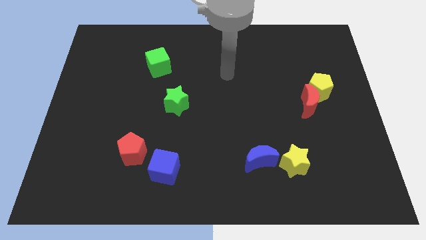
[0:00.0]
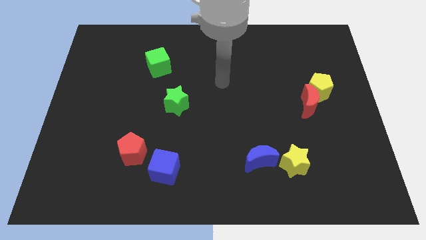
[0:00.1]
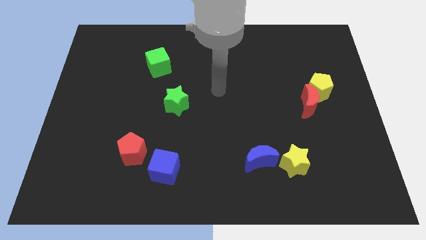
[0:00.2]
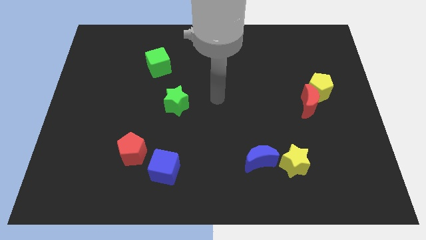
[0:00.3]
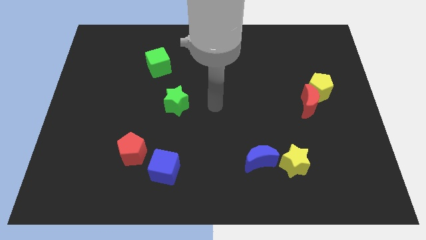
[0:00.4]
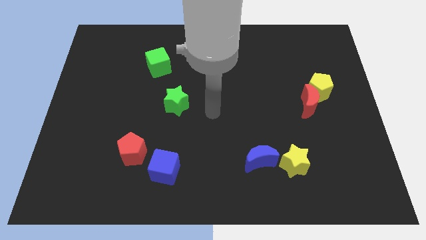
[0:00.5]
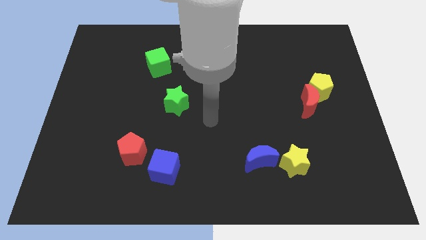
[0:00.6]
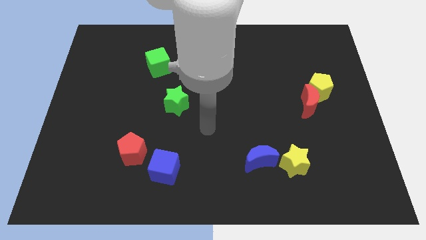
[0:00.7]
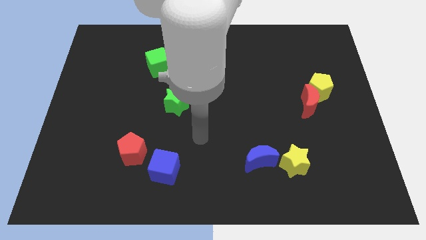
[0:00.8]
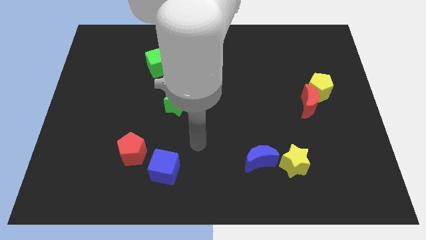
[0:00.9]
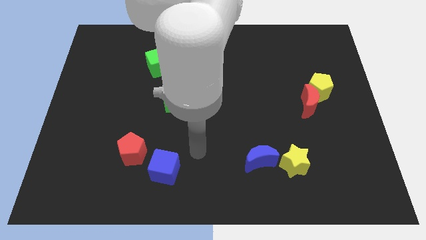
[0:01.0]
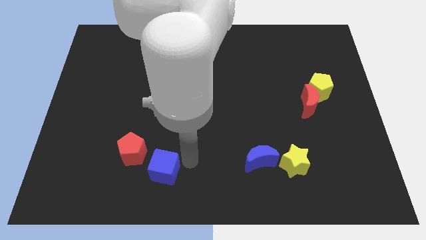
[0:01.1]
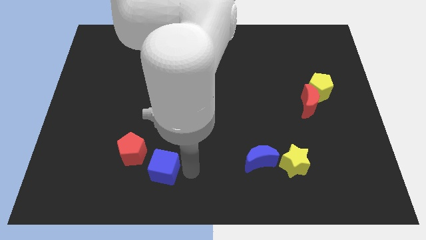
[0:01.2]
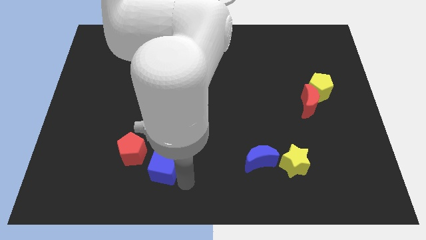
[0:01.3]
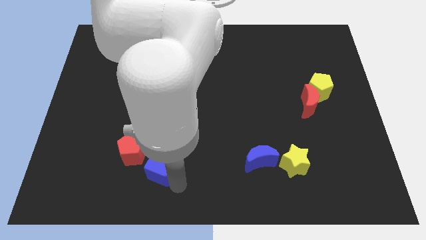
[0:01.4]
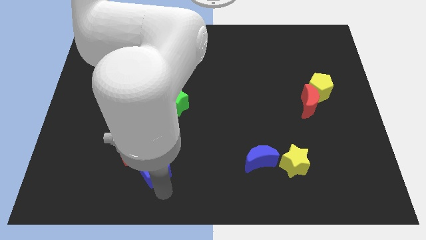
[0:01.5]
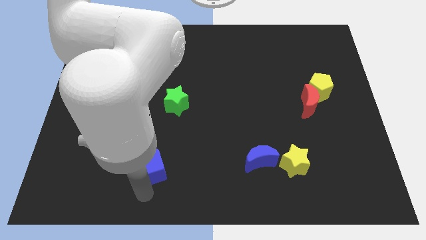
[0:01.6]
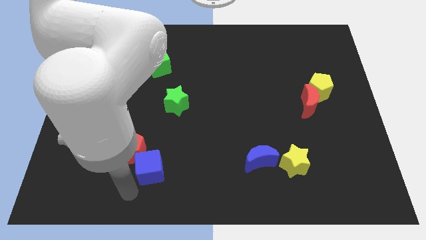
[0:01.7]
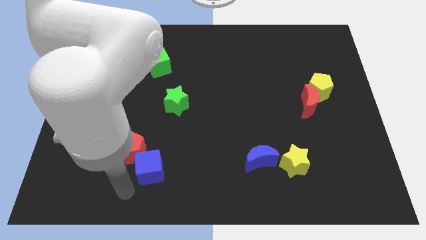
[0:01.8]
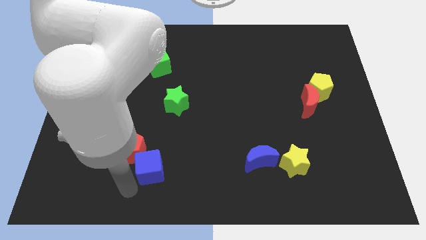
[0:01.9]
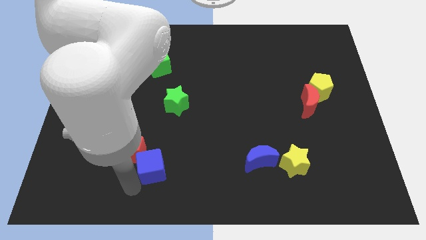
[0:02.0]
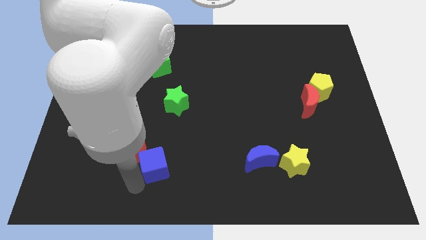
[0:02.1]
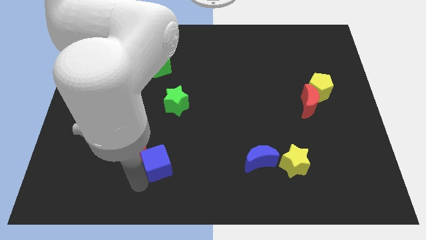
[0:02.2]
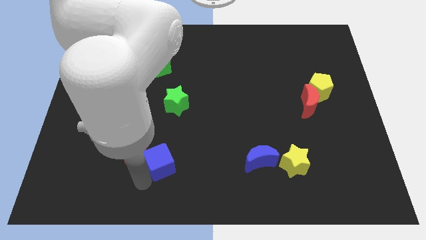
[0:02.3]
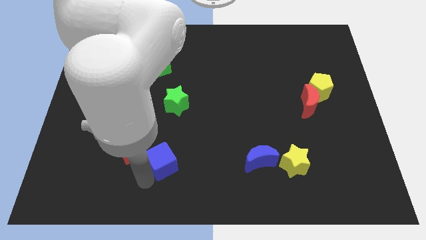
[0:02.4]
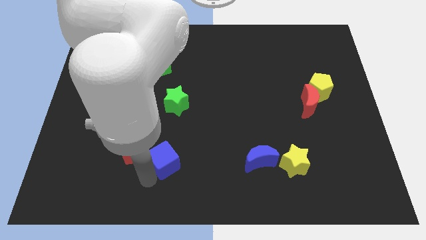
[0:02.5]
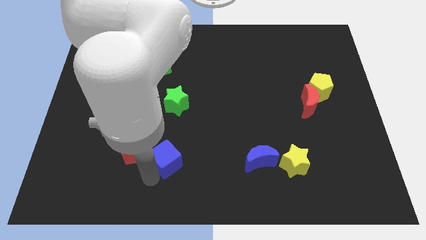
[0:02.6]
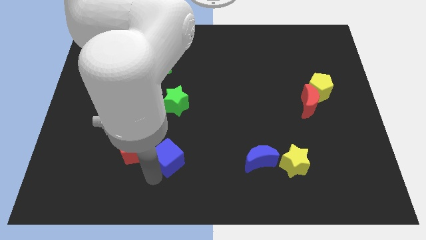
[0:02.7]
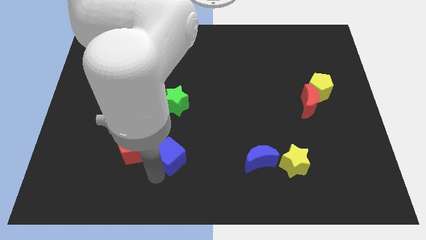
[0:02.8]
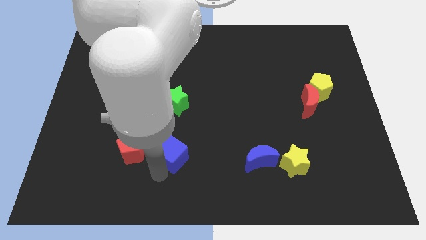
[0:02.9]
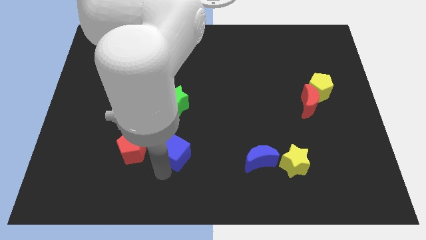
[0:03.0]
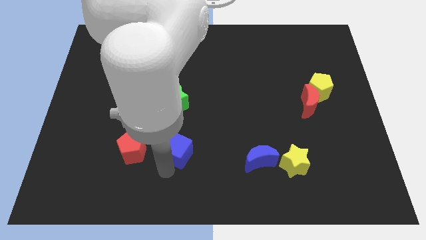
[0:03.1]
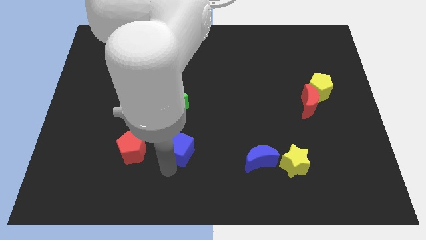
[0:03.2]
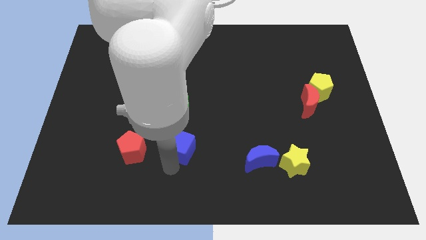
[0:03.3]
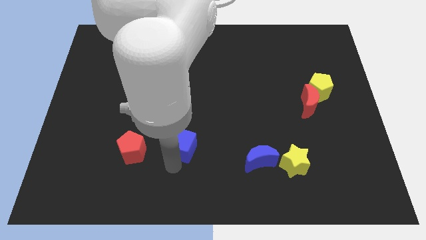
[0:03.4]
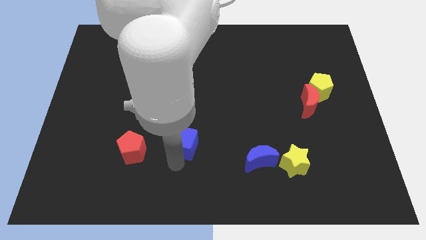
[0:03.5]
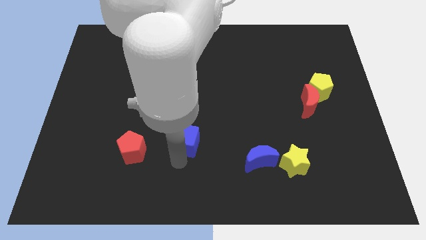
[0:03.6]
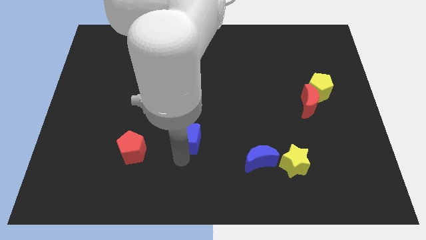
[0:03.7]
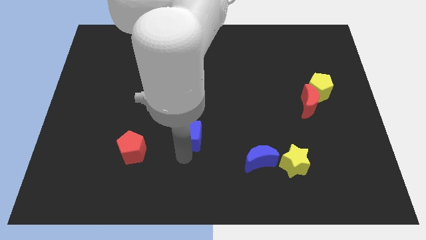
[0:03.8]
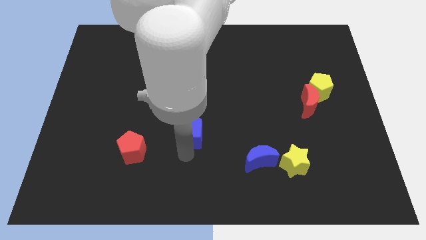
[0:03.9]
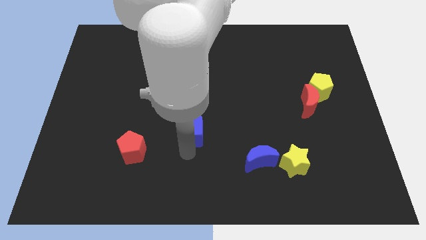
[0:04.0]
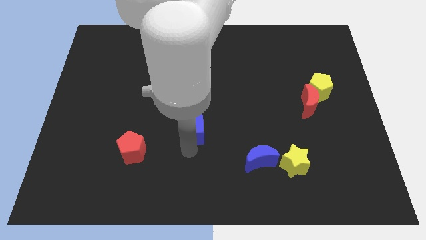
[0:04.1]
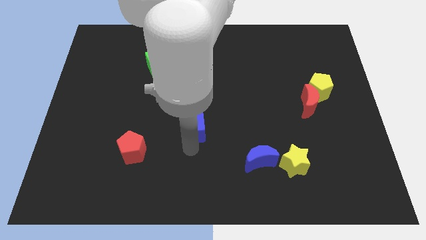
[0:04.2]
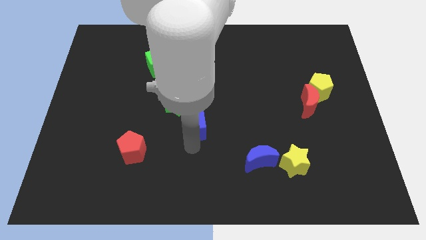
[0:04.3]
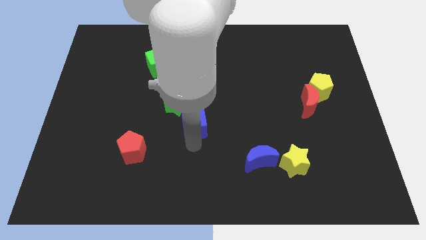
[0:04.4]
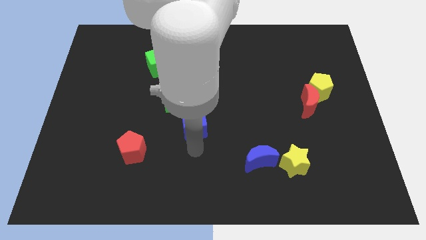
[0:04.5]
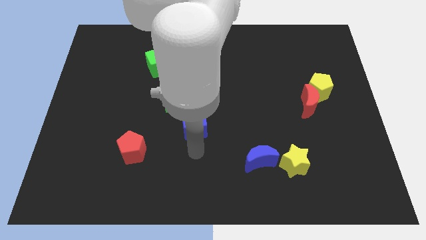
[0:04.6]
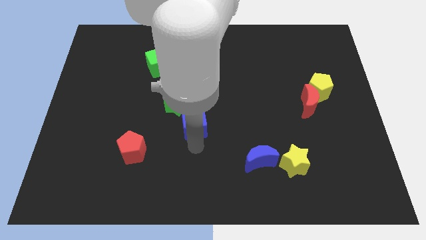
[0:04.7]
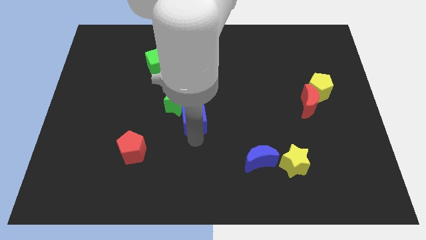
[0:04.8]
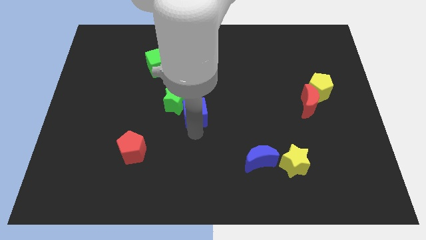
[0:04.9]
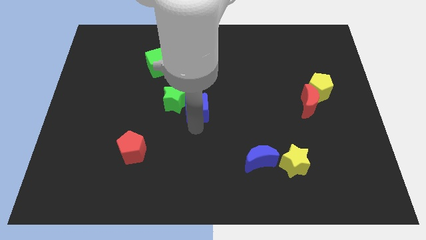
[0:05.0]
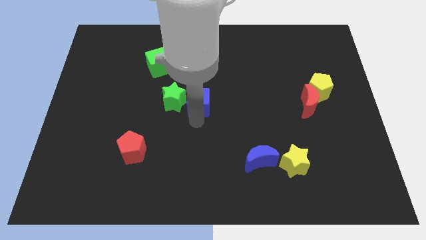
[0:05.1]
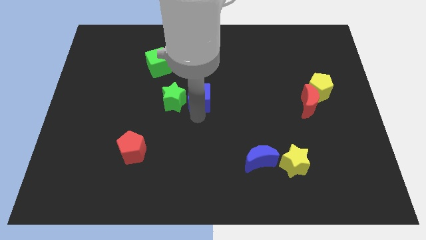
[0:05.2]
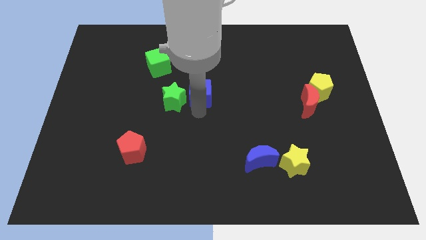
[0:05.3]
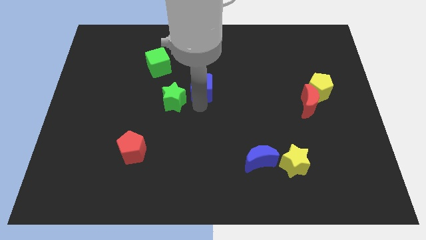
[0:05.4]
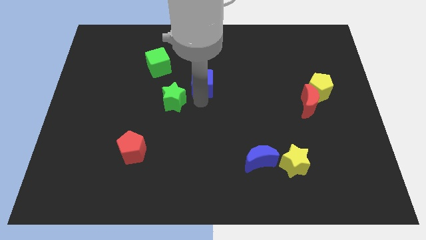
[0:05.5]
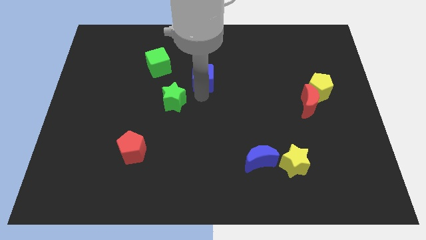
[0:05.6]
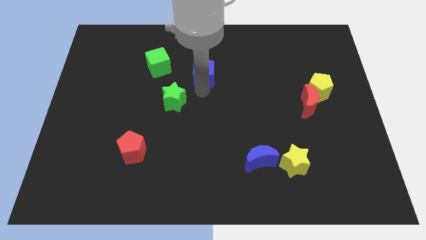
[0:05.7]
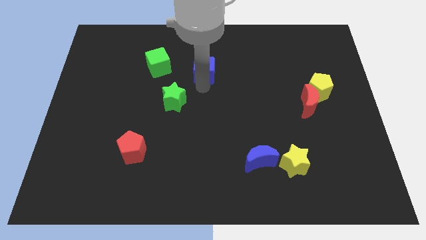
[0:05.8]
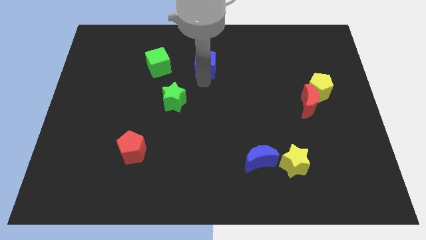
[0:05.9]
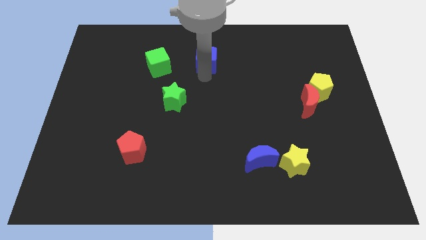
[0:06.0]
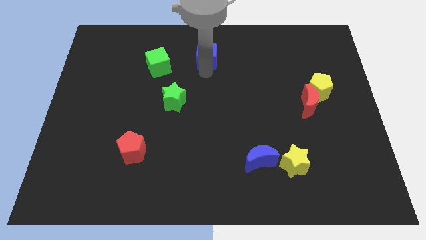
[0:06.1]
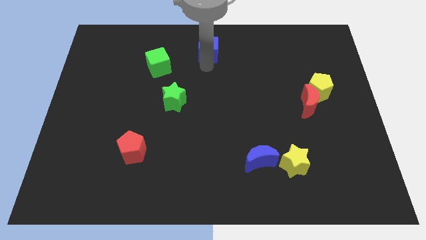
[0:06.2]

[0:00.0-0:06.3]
put the blue cube to the top

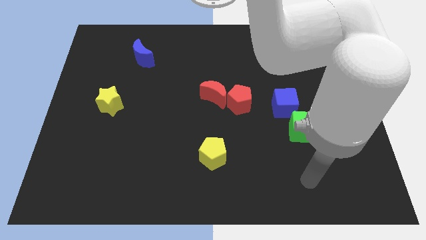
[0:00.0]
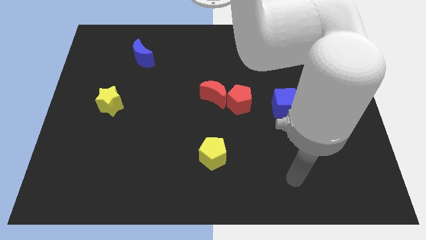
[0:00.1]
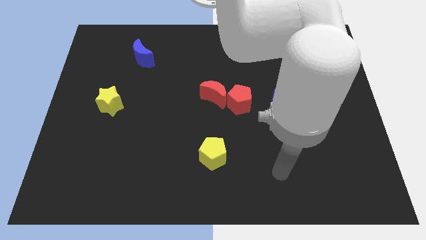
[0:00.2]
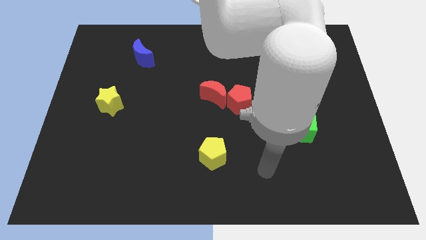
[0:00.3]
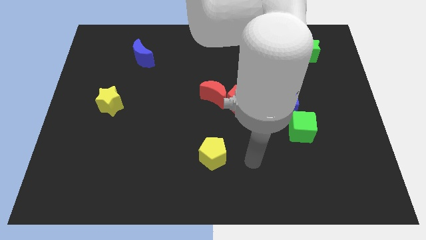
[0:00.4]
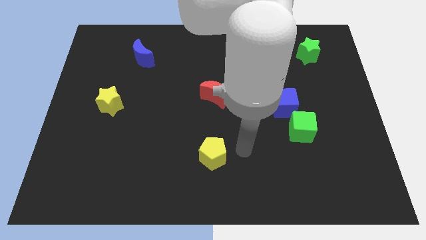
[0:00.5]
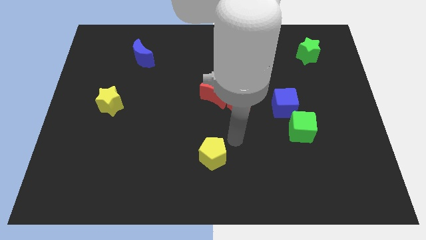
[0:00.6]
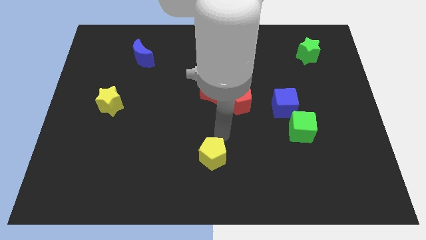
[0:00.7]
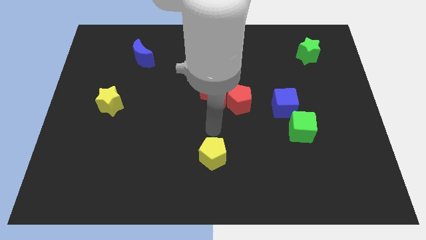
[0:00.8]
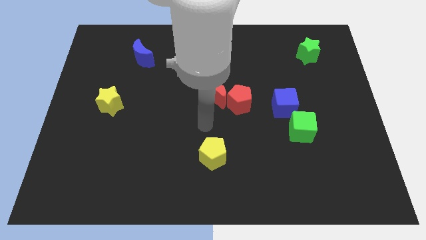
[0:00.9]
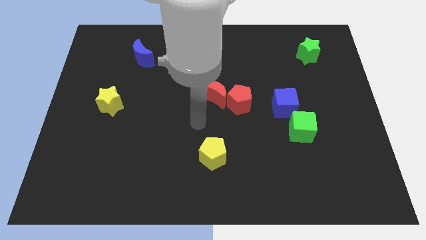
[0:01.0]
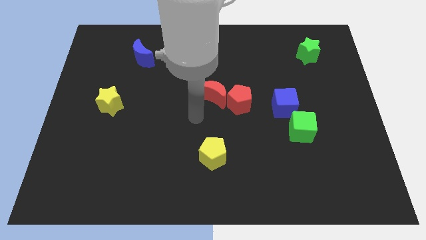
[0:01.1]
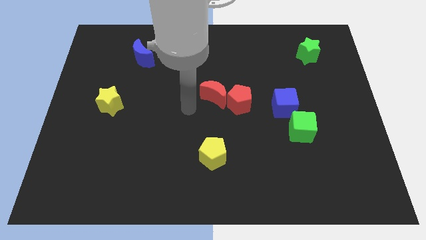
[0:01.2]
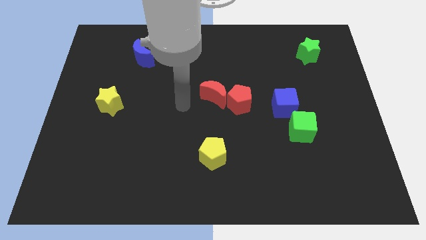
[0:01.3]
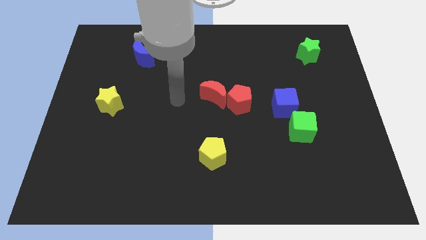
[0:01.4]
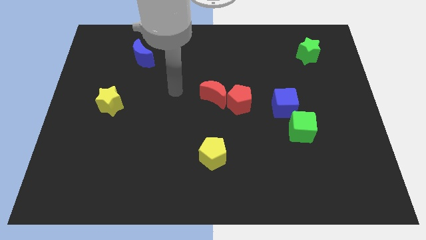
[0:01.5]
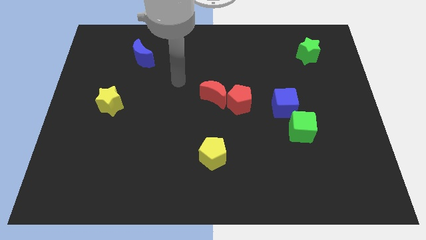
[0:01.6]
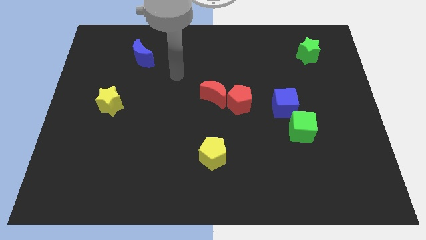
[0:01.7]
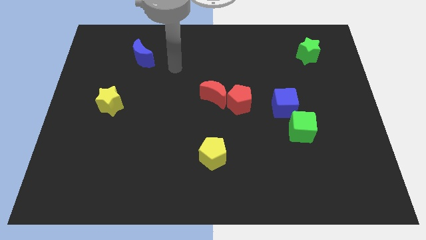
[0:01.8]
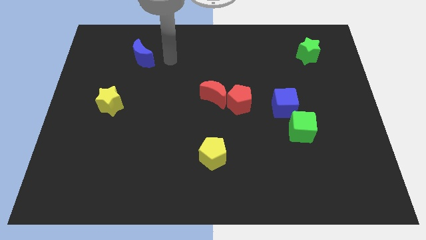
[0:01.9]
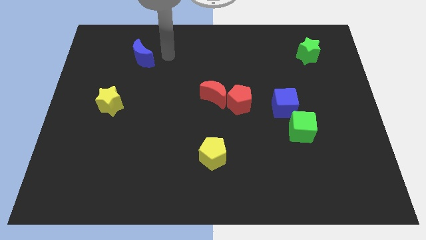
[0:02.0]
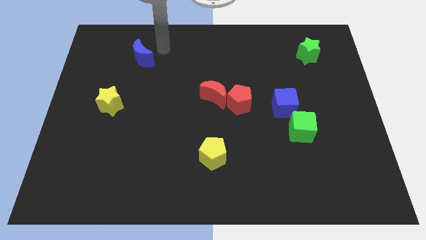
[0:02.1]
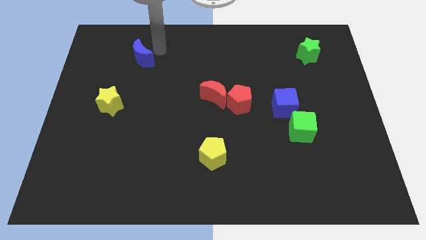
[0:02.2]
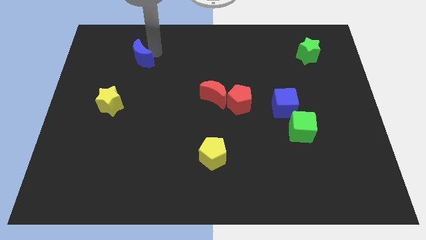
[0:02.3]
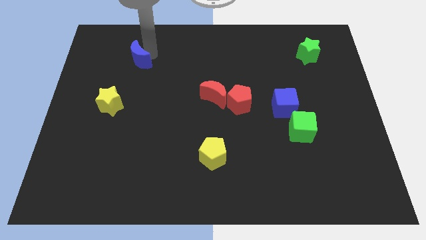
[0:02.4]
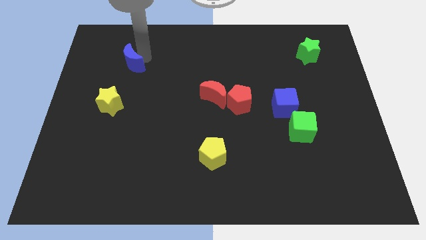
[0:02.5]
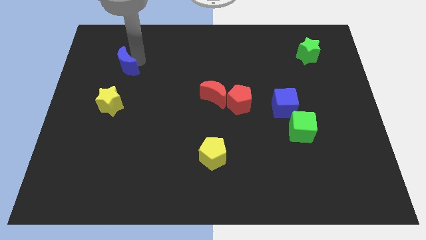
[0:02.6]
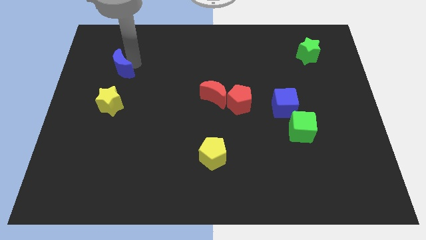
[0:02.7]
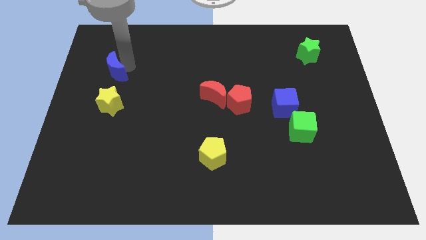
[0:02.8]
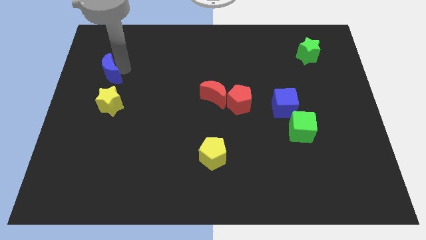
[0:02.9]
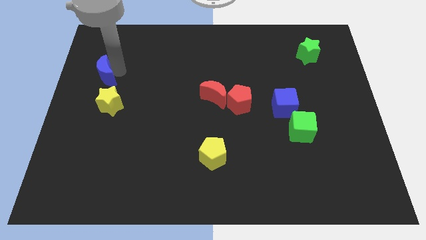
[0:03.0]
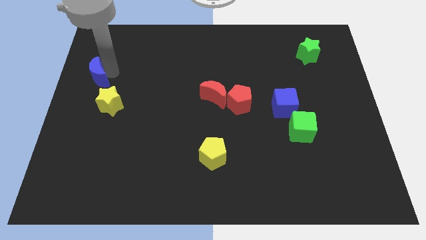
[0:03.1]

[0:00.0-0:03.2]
slide the blue moon to the left side of the board
